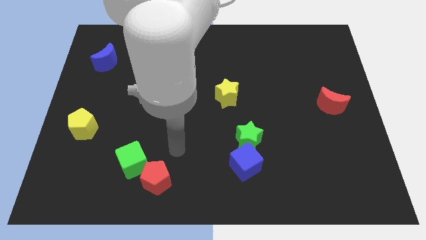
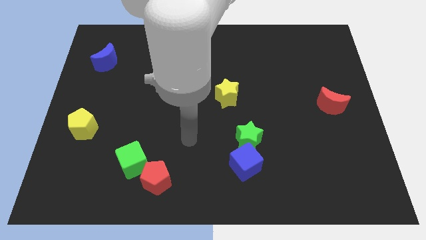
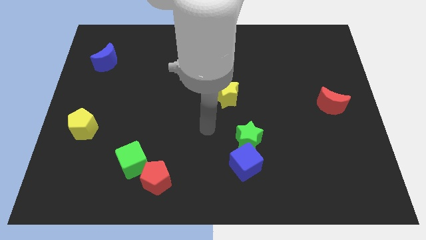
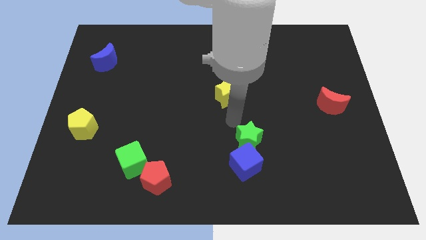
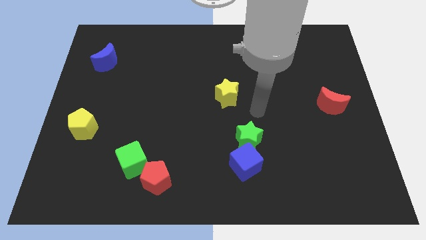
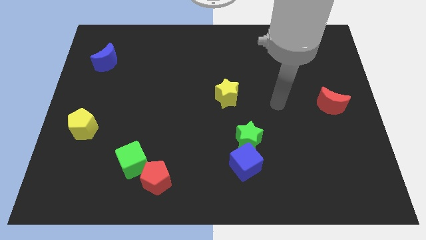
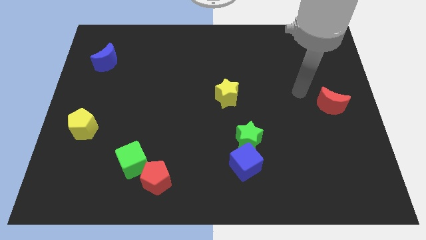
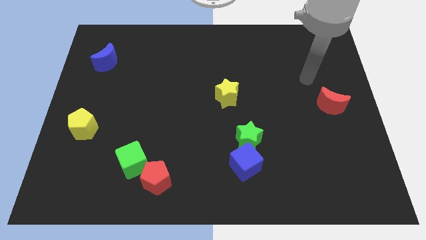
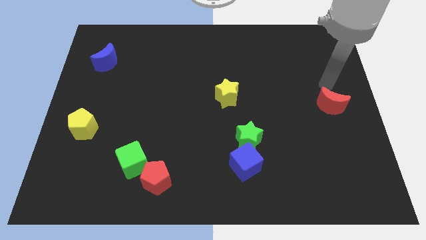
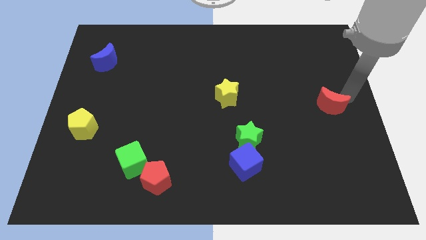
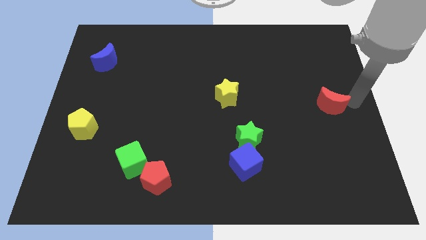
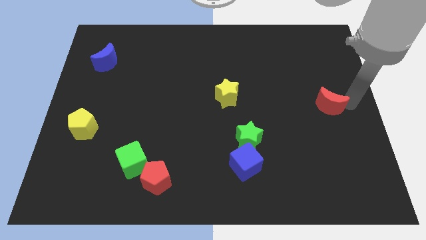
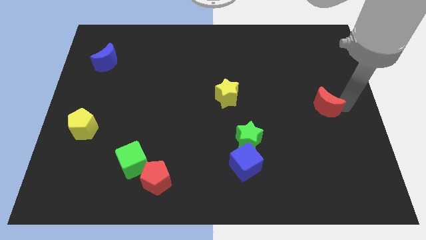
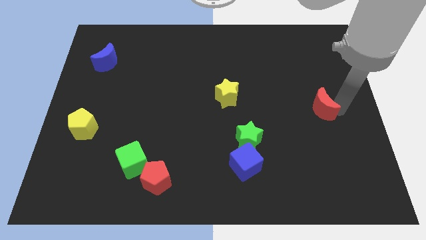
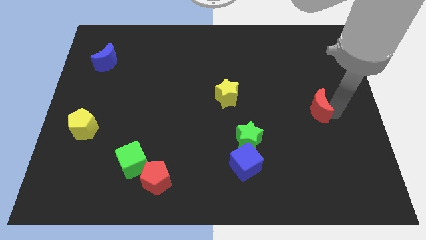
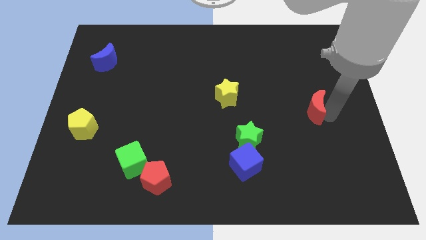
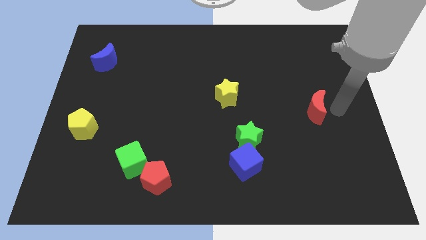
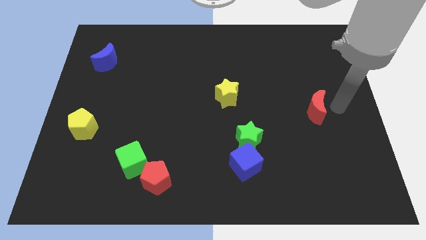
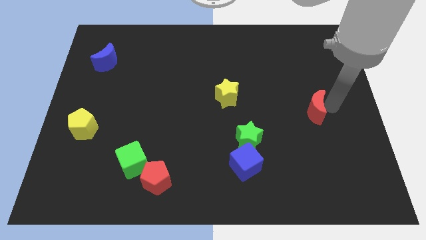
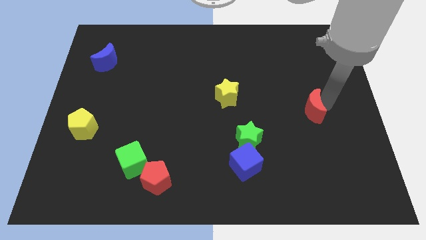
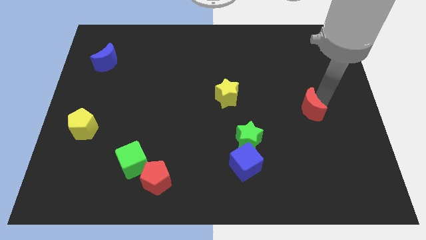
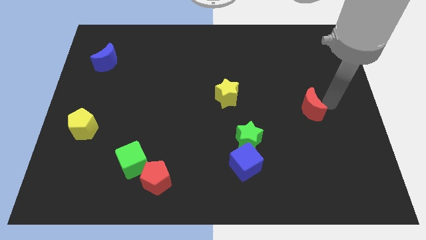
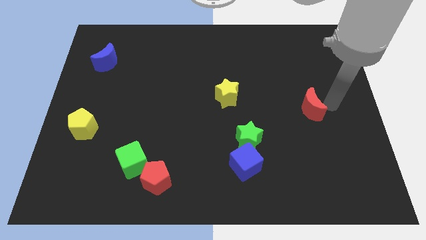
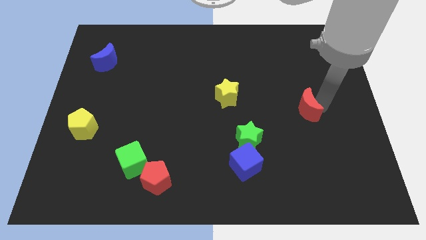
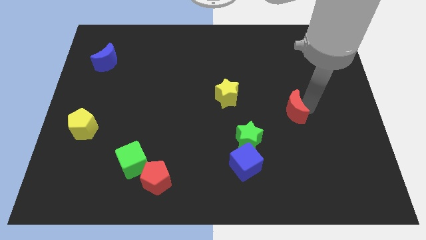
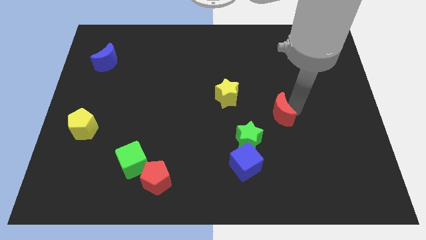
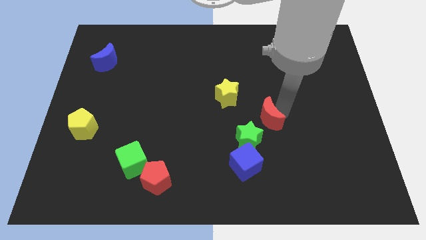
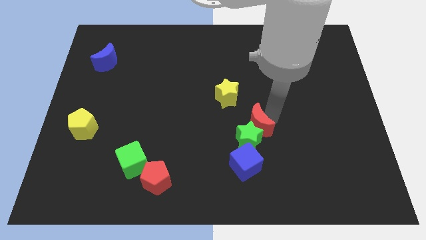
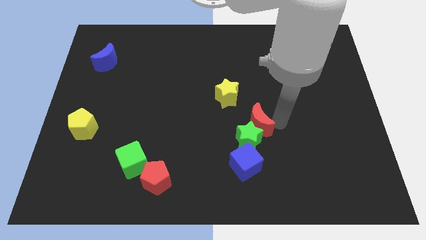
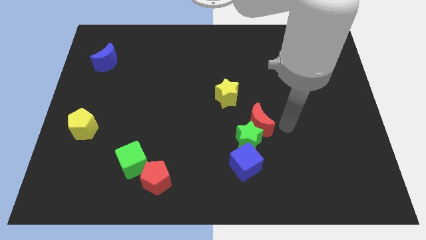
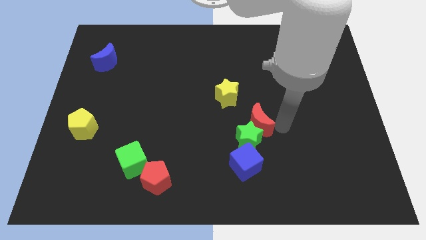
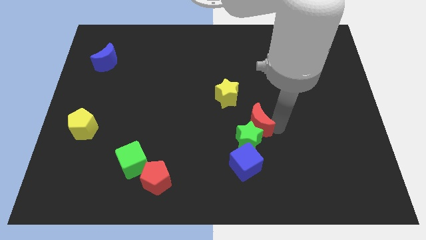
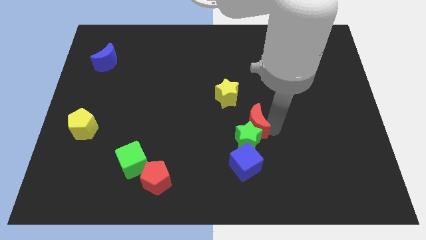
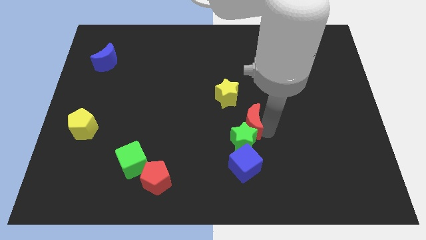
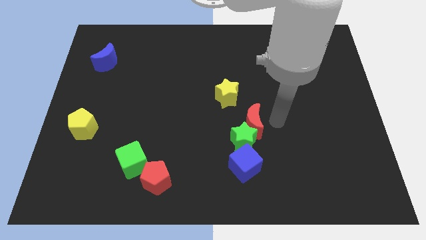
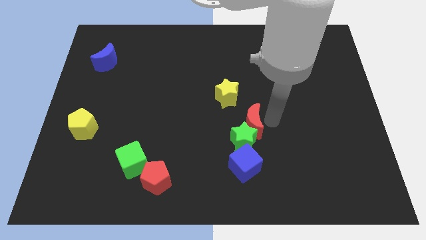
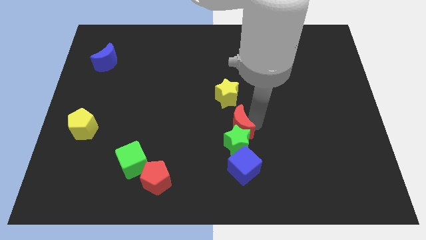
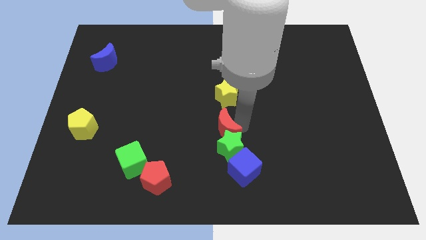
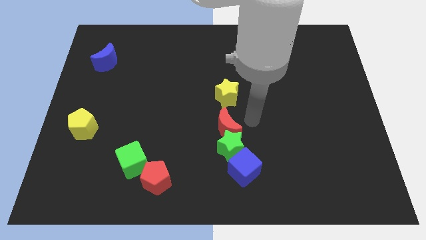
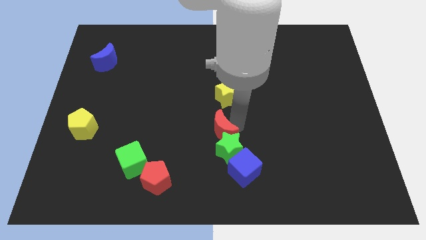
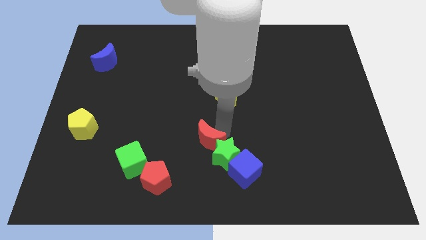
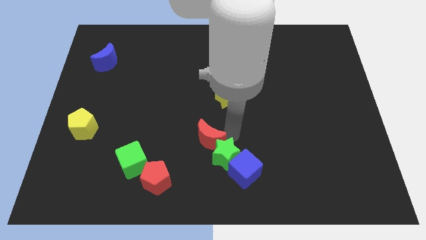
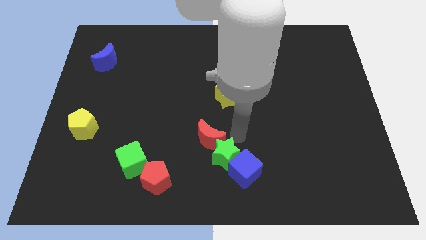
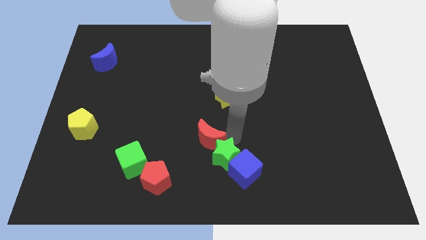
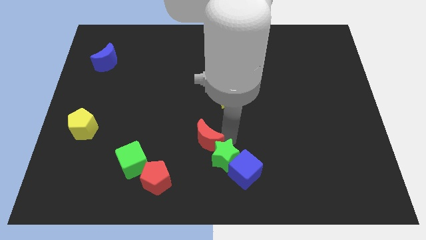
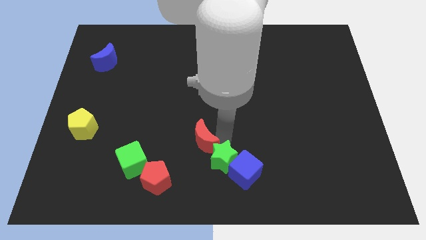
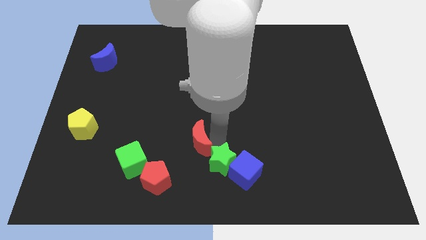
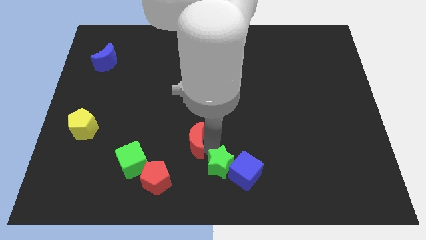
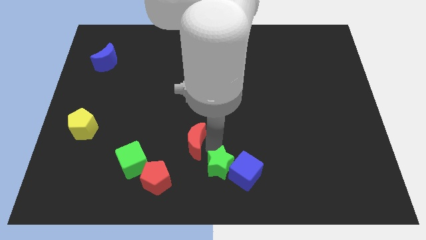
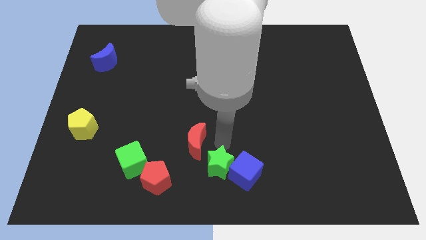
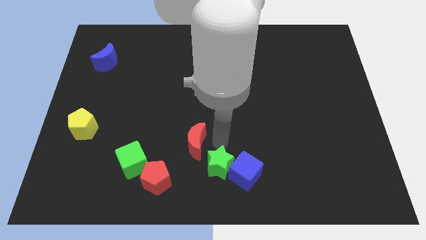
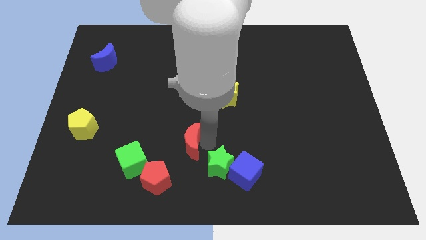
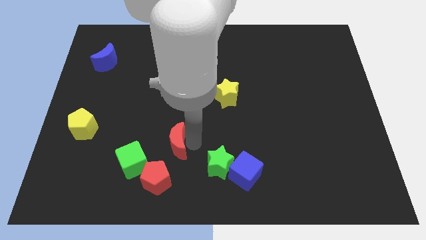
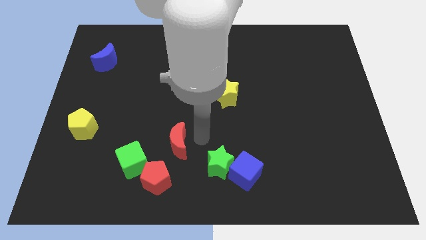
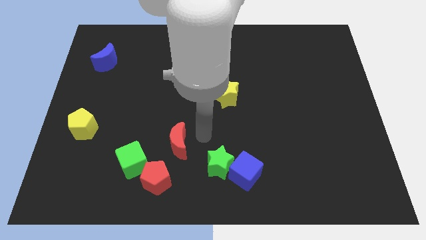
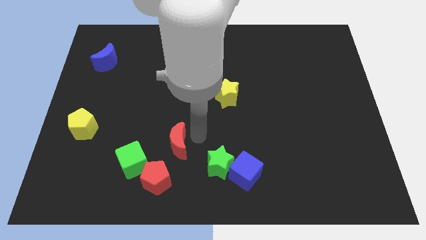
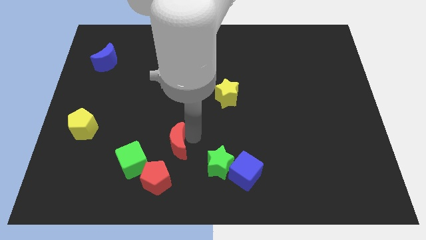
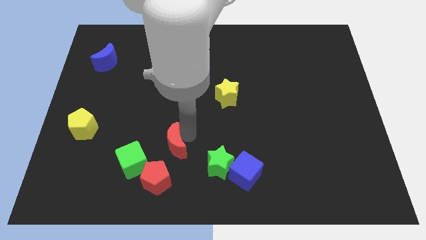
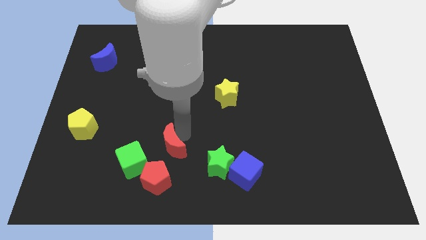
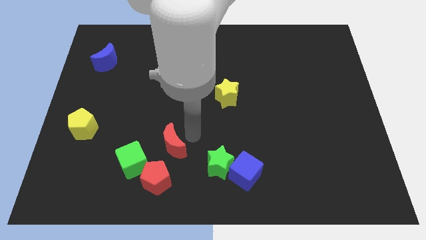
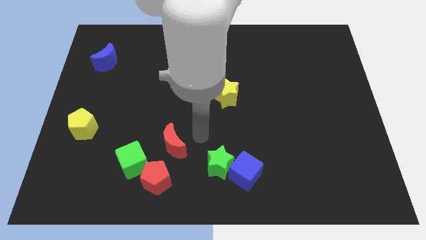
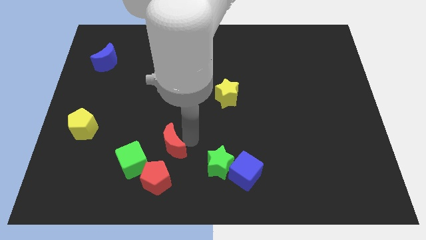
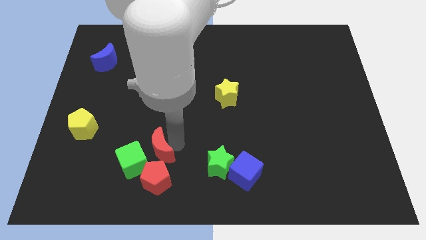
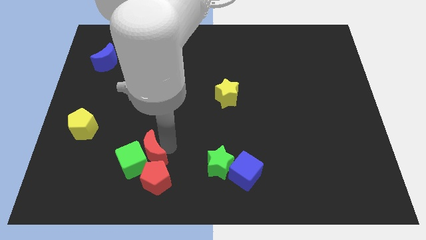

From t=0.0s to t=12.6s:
push the red moon to the green cube

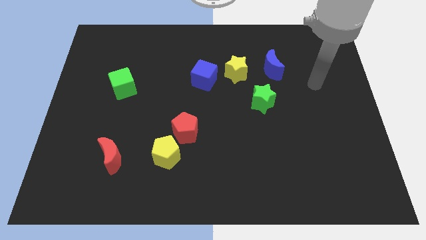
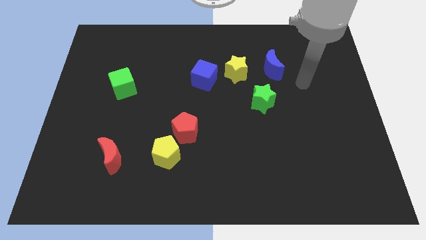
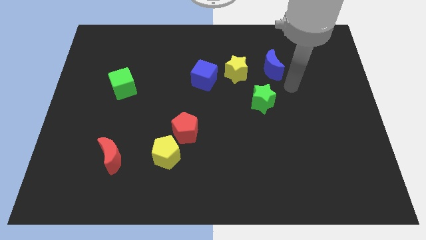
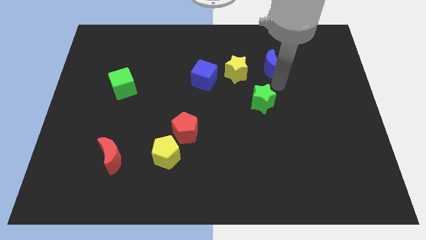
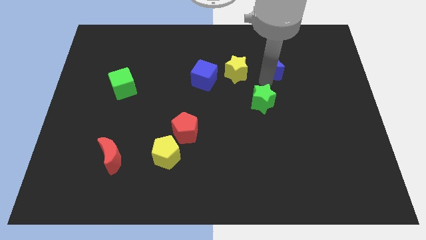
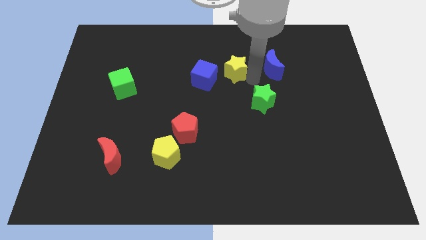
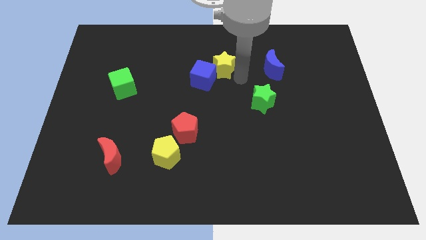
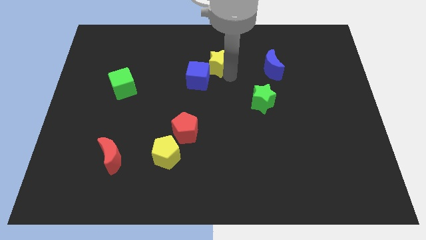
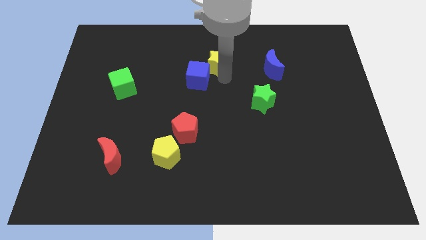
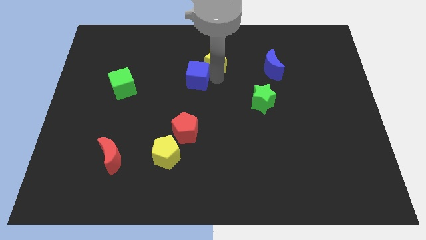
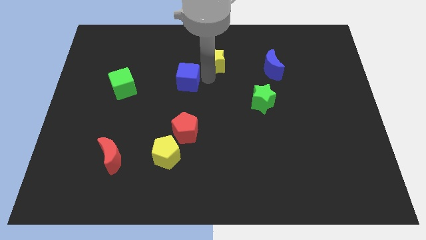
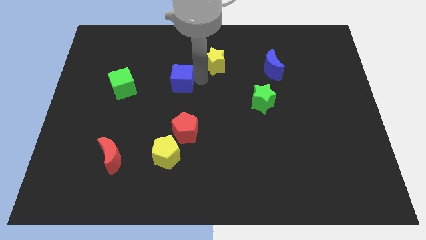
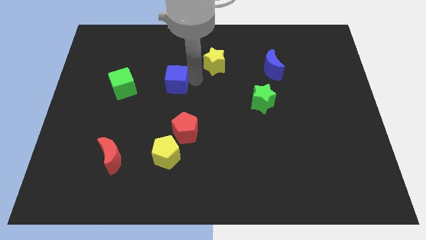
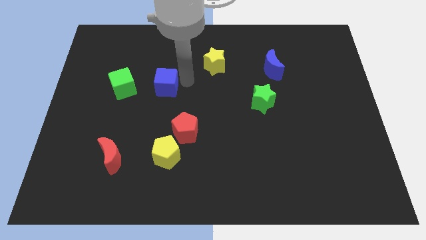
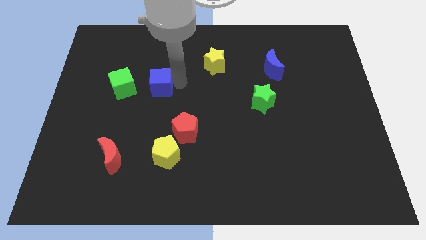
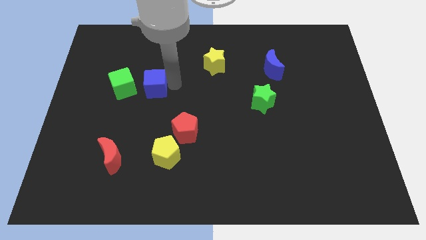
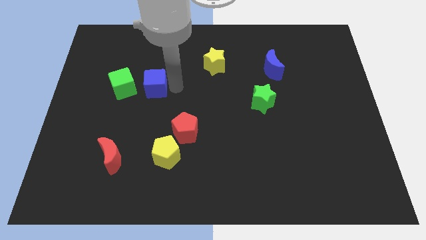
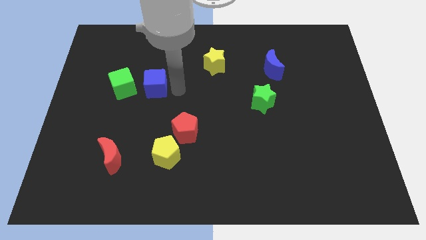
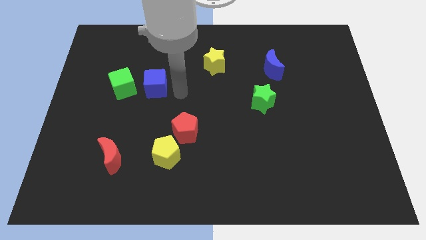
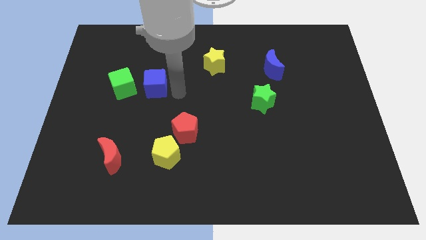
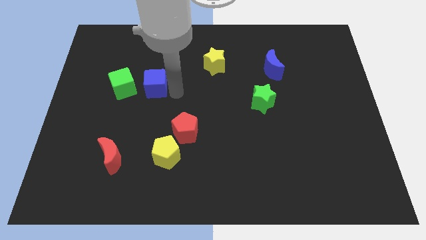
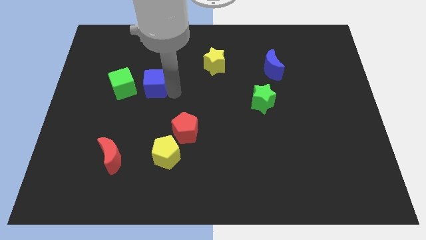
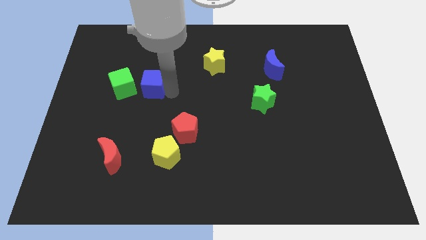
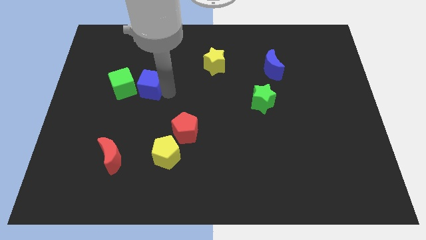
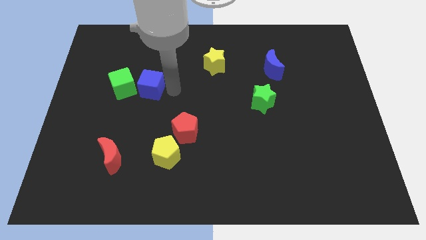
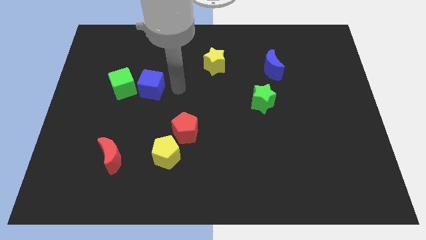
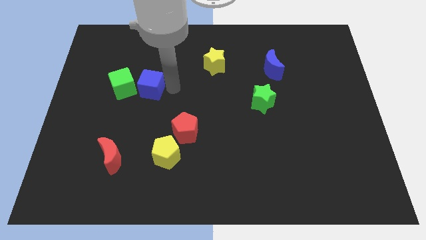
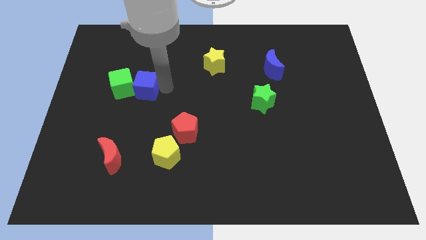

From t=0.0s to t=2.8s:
slide the blue cube close to the green cube
